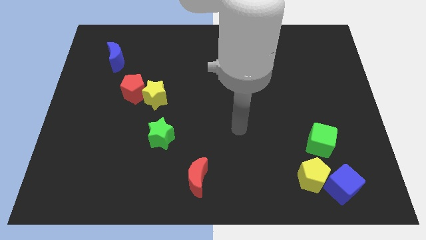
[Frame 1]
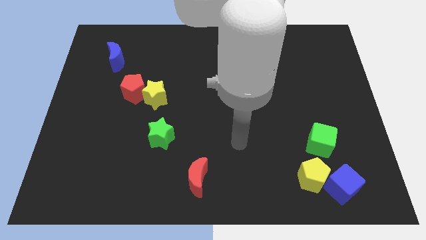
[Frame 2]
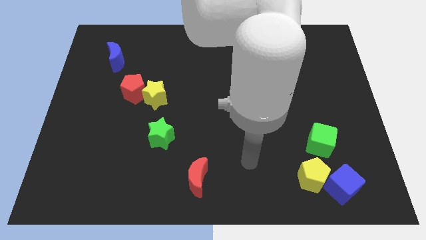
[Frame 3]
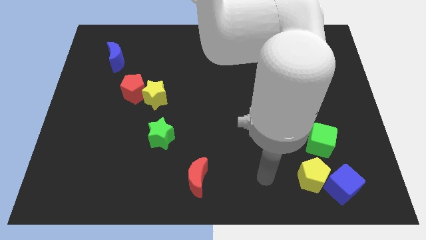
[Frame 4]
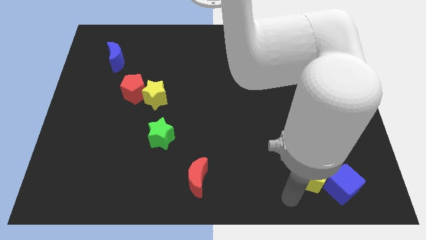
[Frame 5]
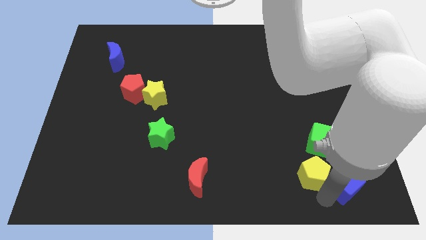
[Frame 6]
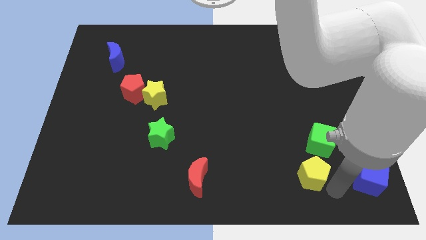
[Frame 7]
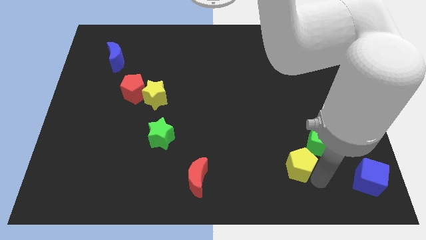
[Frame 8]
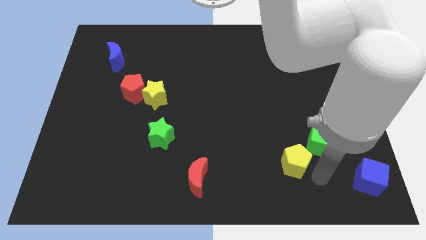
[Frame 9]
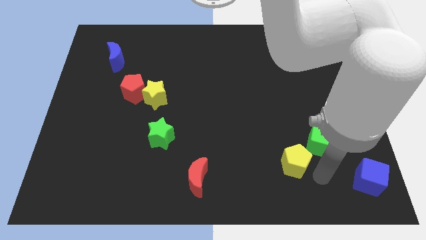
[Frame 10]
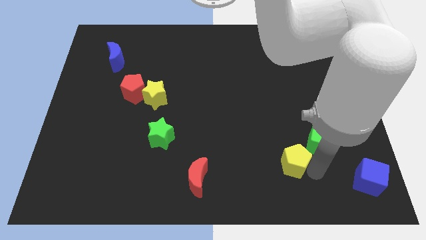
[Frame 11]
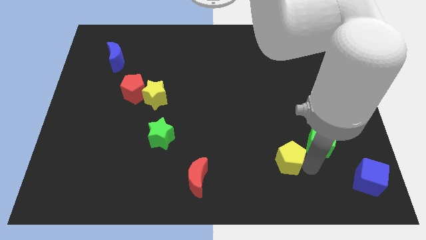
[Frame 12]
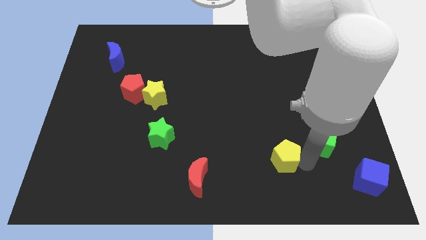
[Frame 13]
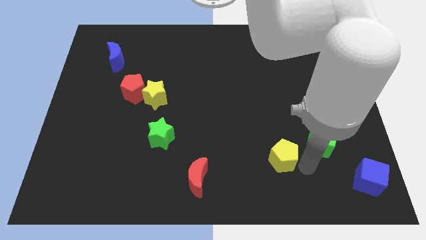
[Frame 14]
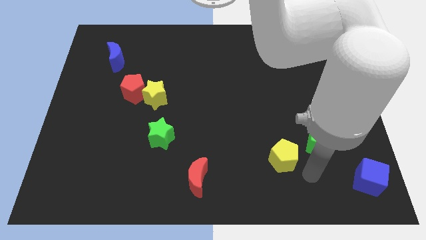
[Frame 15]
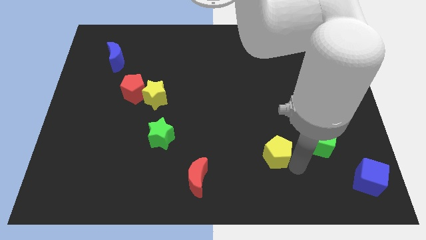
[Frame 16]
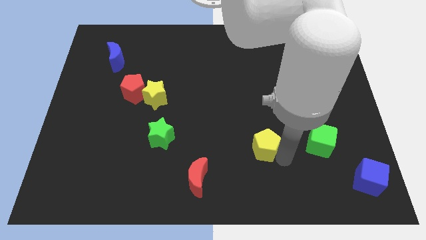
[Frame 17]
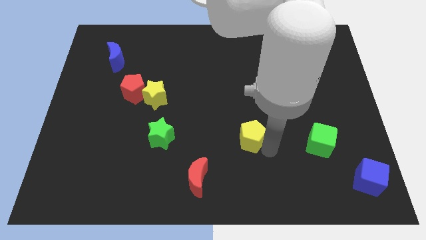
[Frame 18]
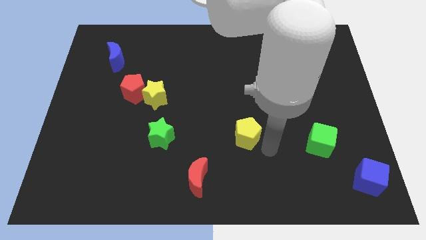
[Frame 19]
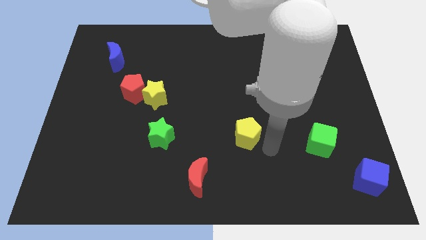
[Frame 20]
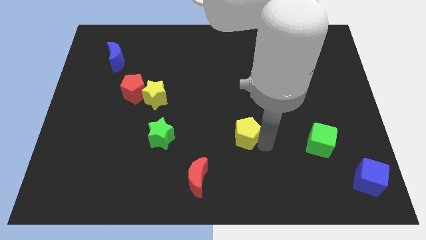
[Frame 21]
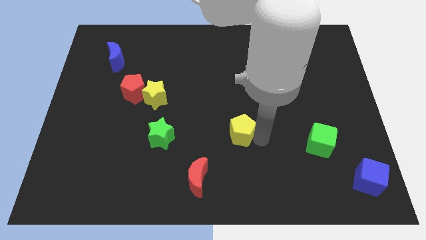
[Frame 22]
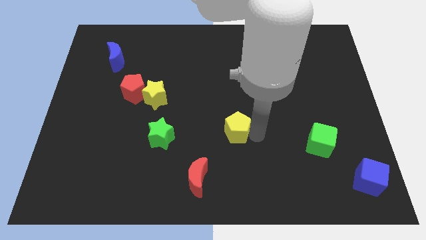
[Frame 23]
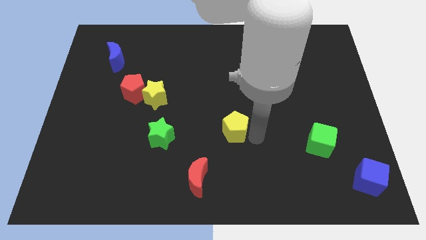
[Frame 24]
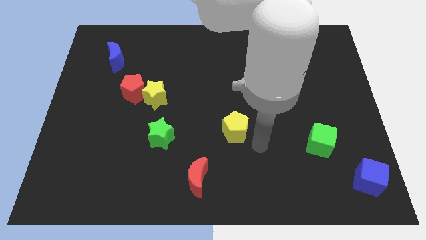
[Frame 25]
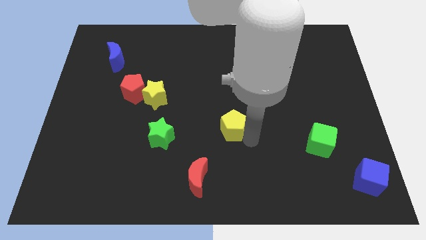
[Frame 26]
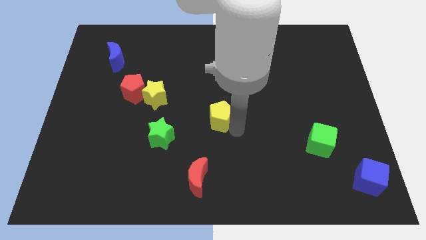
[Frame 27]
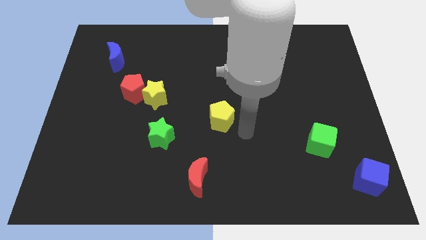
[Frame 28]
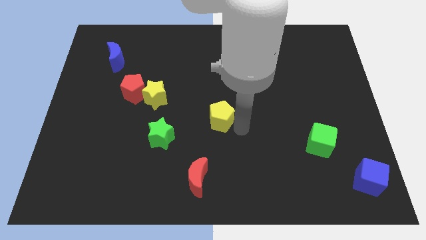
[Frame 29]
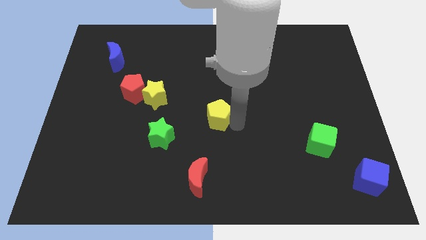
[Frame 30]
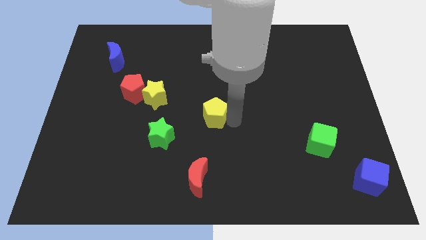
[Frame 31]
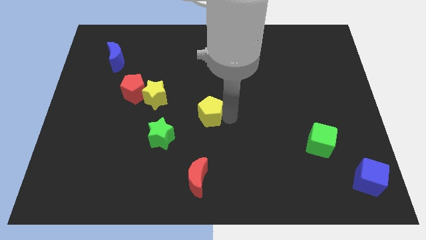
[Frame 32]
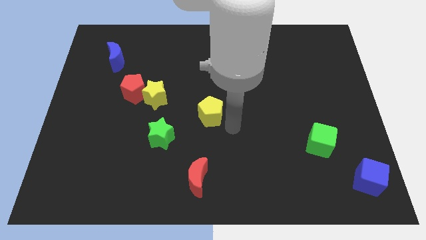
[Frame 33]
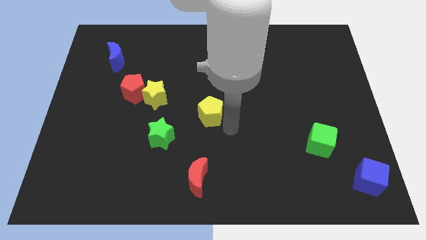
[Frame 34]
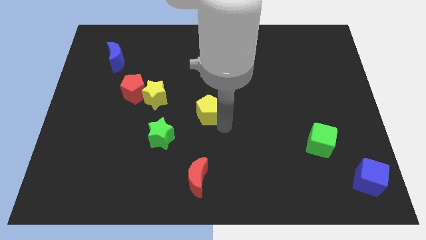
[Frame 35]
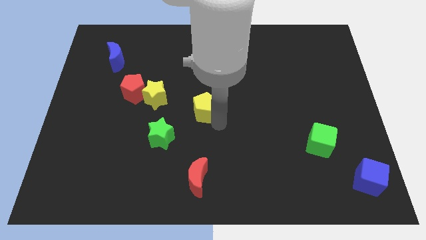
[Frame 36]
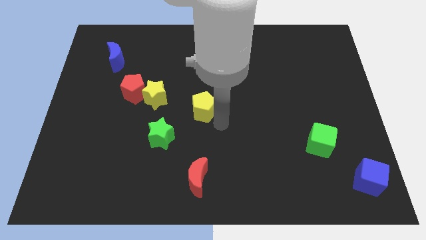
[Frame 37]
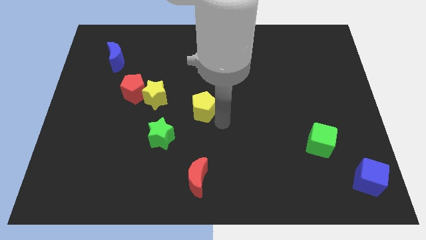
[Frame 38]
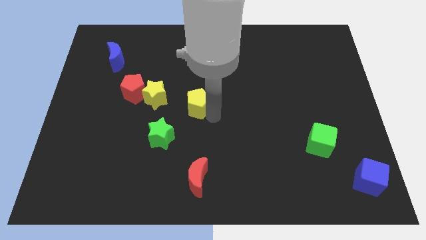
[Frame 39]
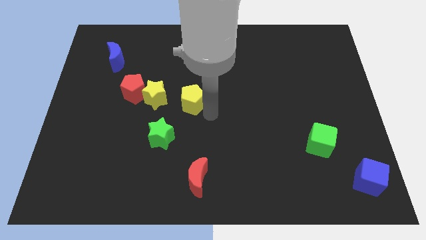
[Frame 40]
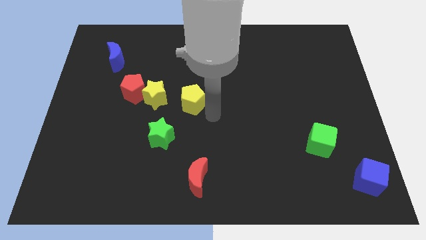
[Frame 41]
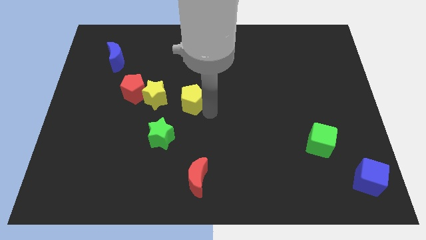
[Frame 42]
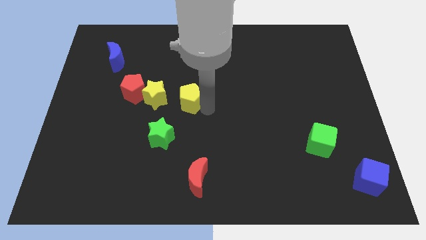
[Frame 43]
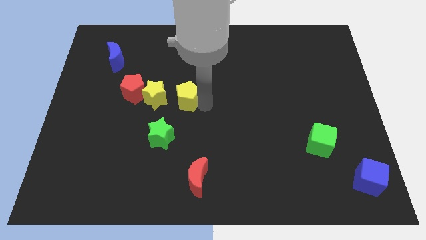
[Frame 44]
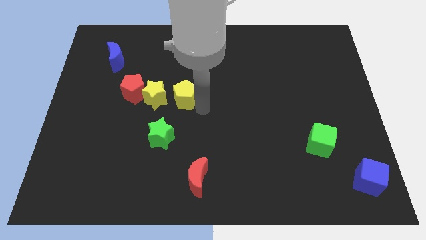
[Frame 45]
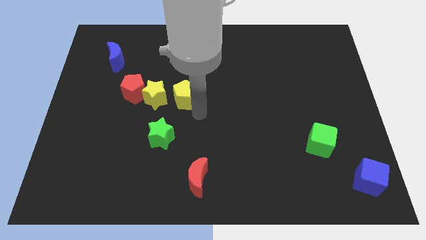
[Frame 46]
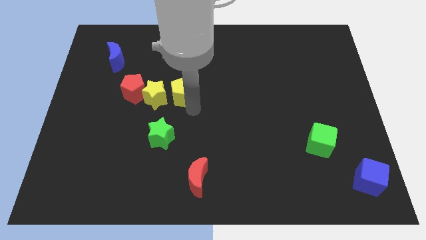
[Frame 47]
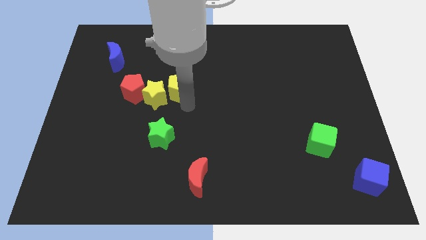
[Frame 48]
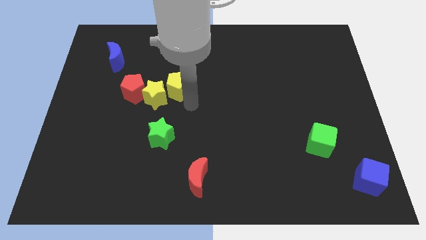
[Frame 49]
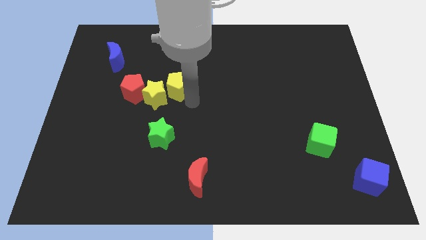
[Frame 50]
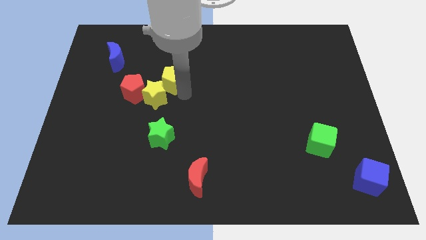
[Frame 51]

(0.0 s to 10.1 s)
move the yellow pentagon above the yellow star

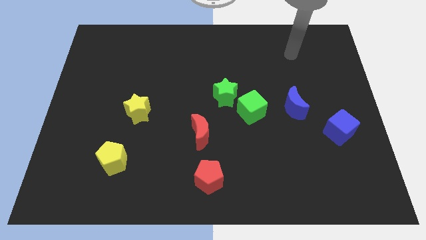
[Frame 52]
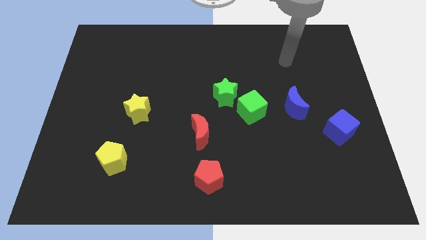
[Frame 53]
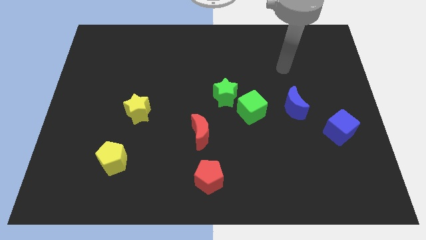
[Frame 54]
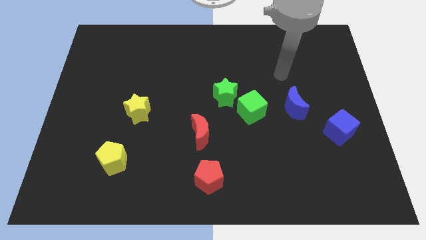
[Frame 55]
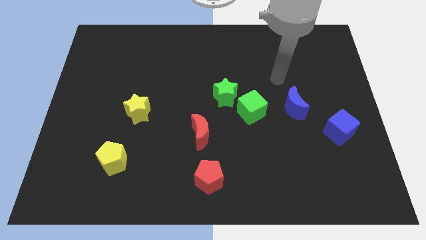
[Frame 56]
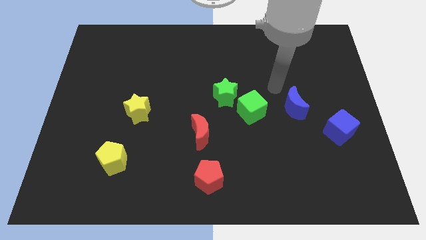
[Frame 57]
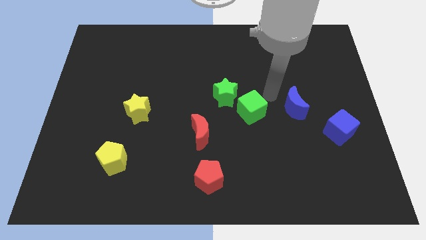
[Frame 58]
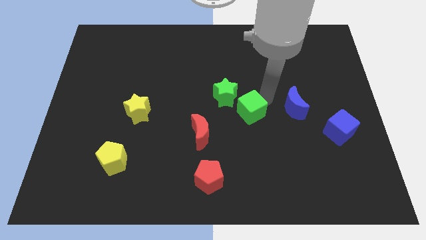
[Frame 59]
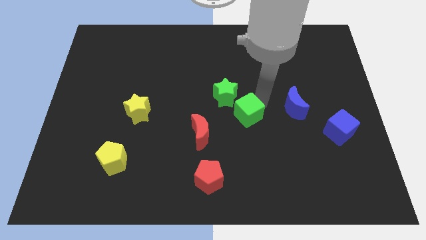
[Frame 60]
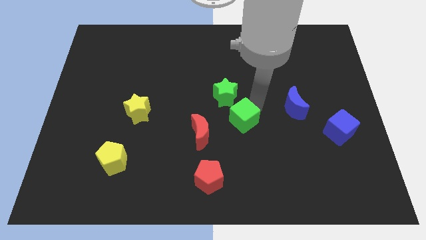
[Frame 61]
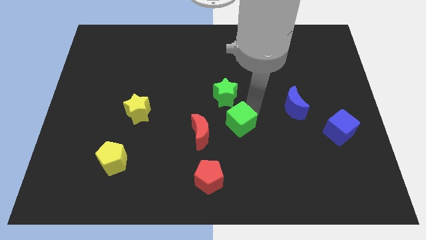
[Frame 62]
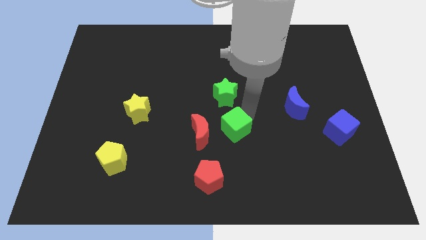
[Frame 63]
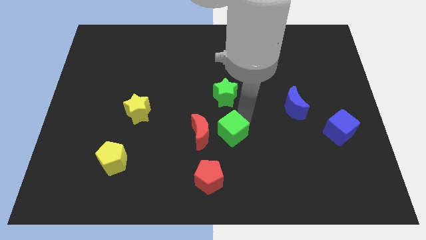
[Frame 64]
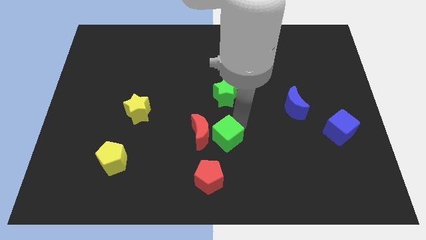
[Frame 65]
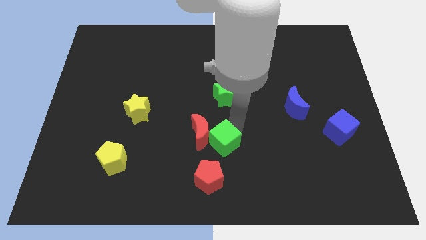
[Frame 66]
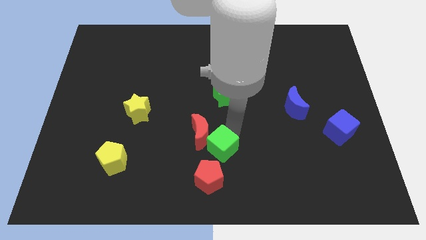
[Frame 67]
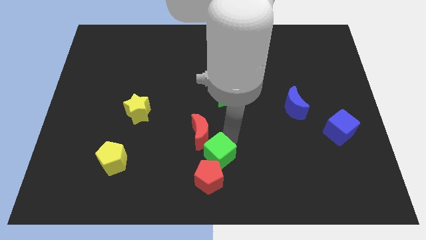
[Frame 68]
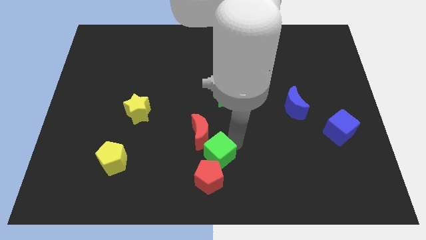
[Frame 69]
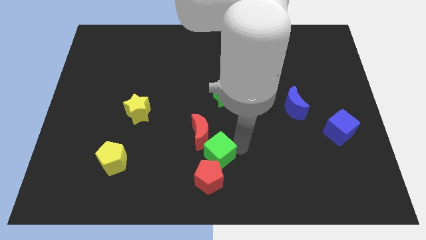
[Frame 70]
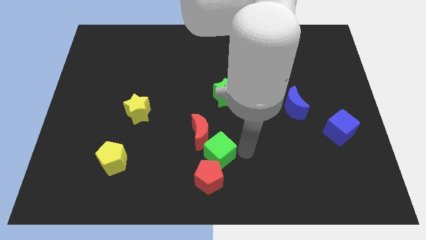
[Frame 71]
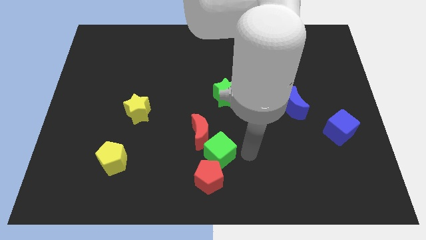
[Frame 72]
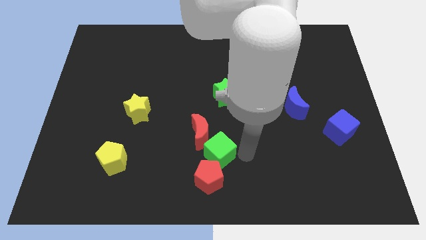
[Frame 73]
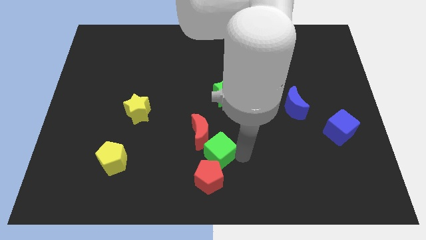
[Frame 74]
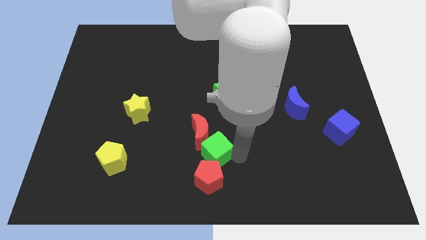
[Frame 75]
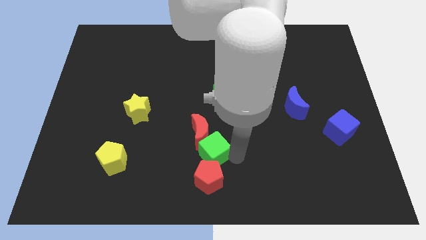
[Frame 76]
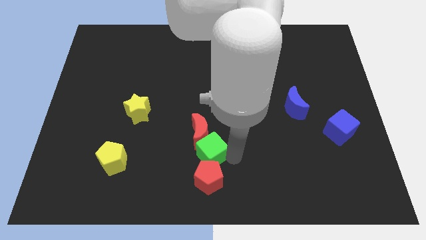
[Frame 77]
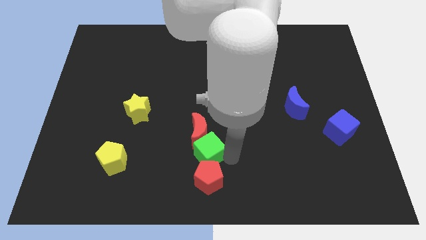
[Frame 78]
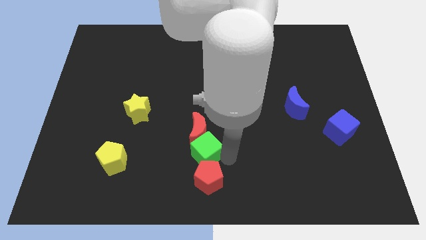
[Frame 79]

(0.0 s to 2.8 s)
slide the green cube to the bottom left of the red moon
